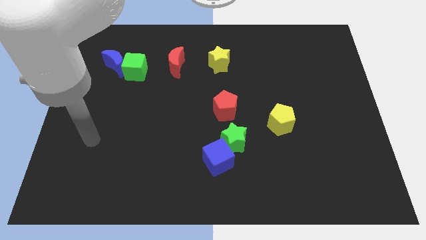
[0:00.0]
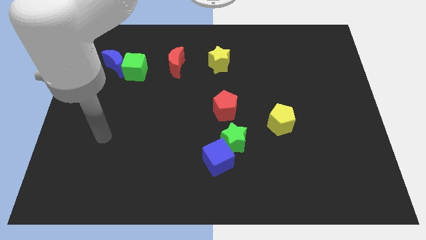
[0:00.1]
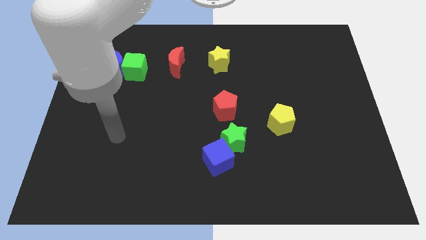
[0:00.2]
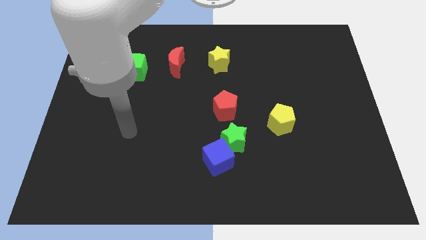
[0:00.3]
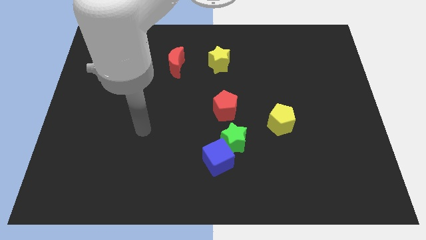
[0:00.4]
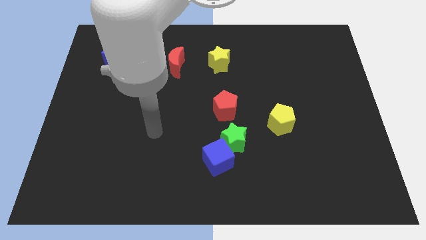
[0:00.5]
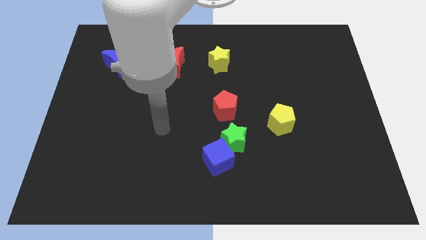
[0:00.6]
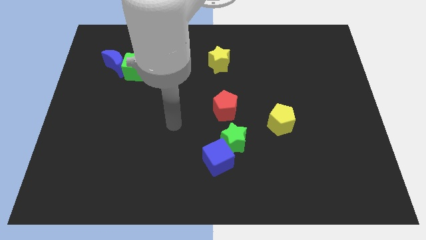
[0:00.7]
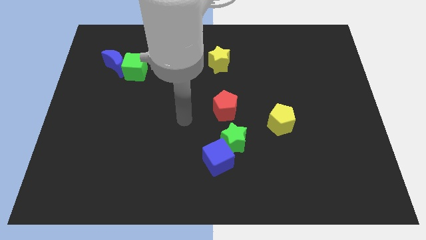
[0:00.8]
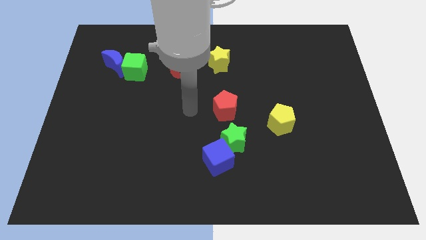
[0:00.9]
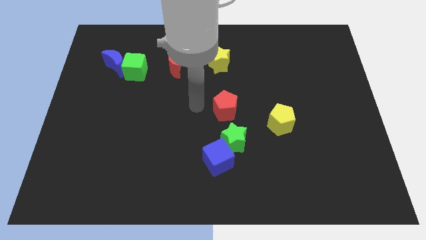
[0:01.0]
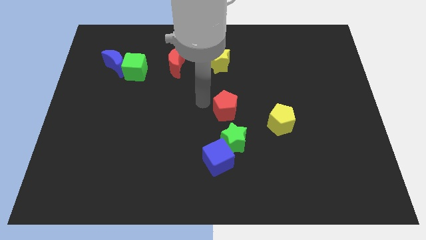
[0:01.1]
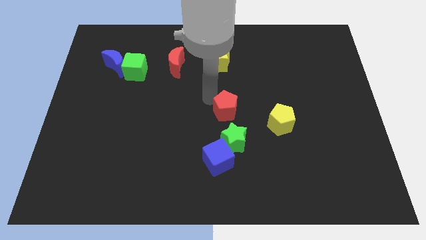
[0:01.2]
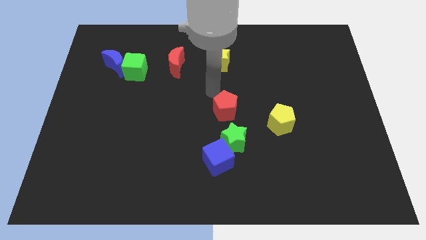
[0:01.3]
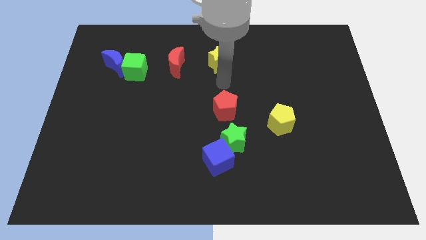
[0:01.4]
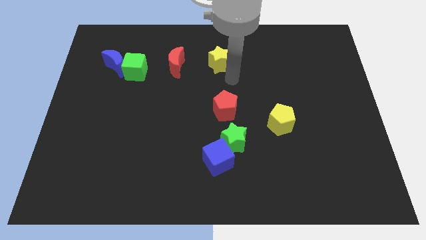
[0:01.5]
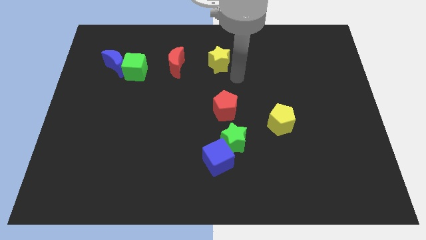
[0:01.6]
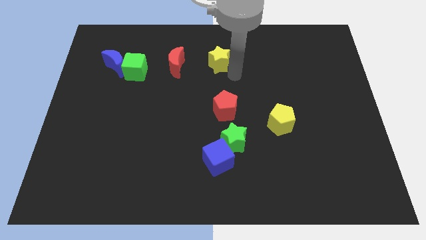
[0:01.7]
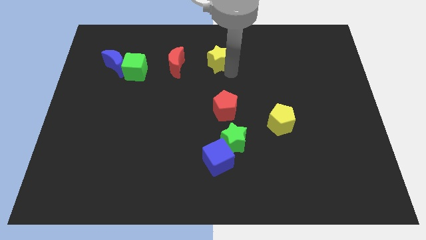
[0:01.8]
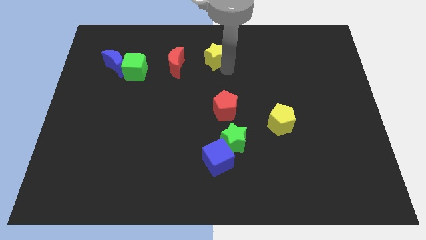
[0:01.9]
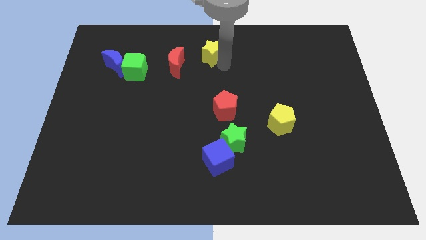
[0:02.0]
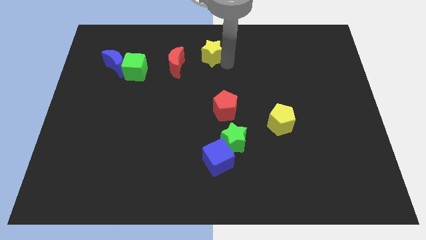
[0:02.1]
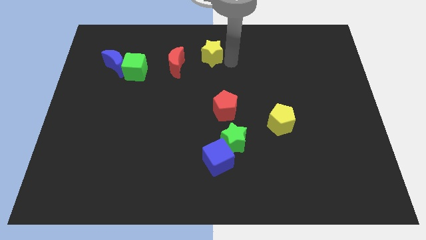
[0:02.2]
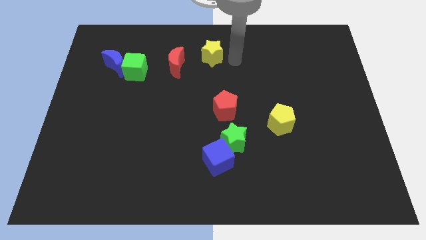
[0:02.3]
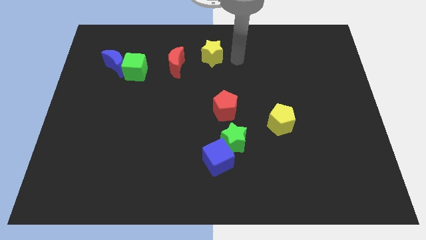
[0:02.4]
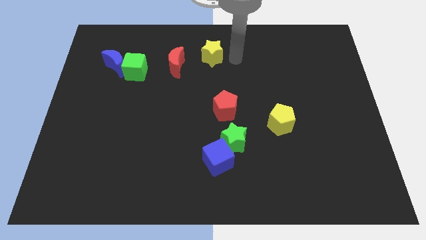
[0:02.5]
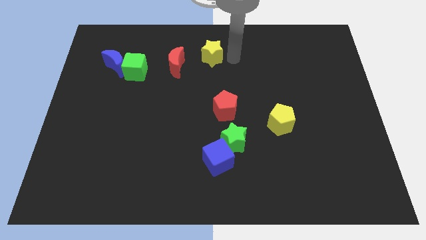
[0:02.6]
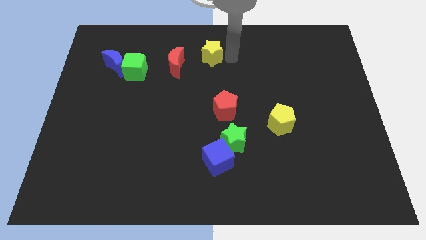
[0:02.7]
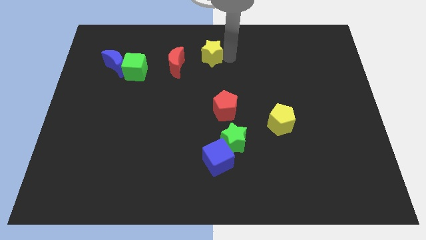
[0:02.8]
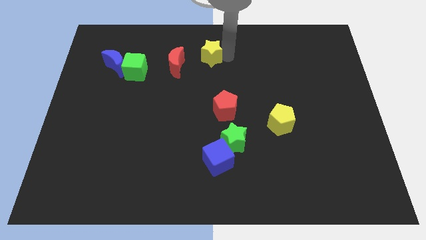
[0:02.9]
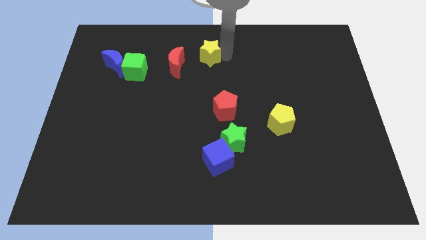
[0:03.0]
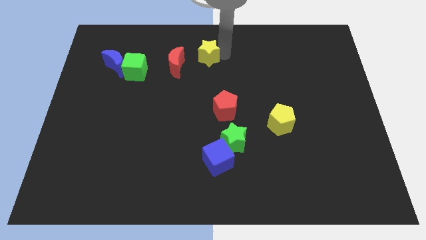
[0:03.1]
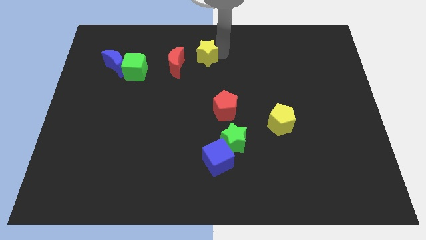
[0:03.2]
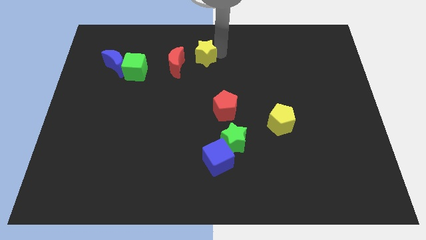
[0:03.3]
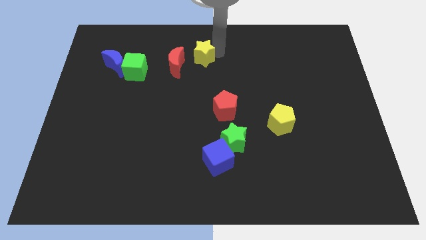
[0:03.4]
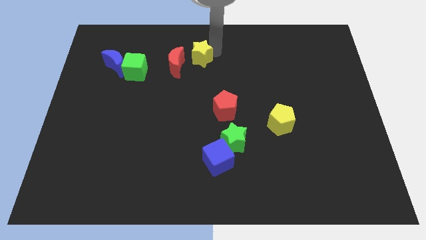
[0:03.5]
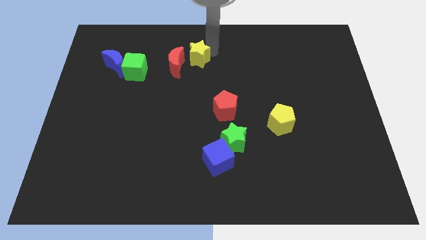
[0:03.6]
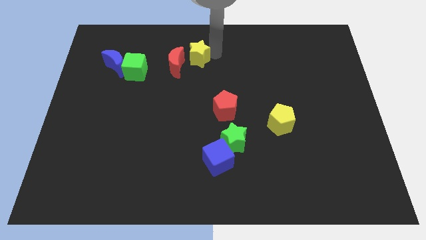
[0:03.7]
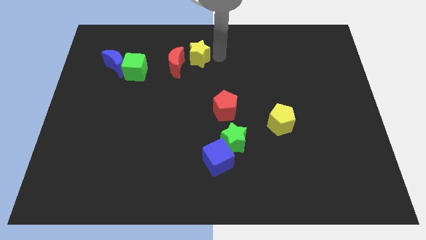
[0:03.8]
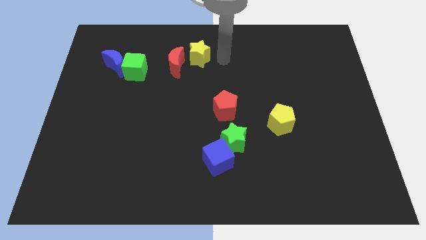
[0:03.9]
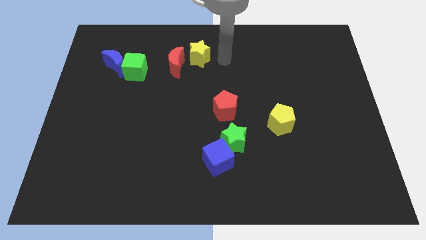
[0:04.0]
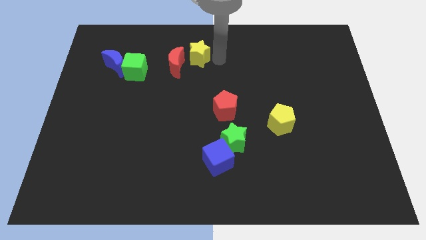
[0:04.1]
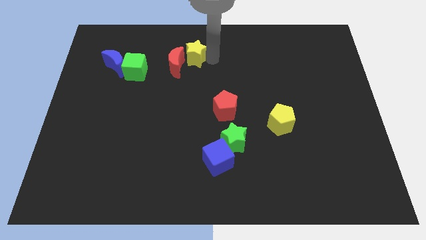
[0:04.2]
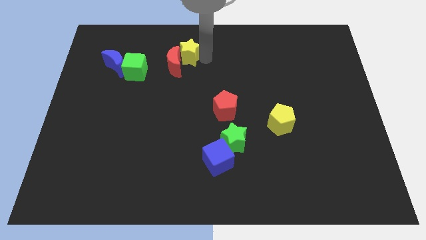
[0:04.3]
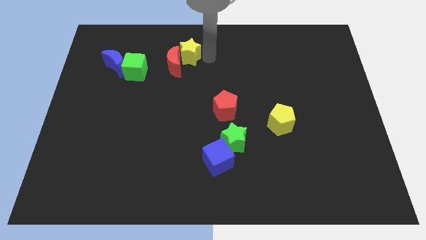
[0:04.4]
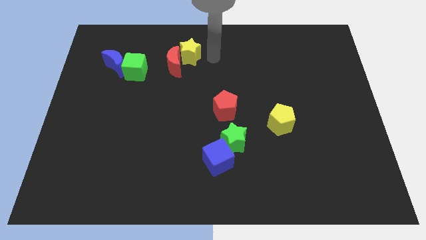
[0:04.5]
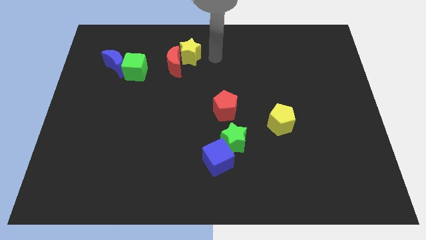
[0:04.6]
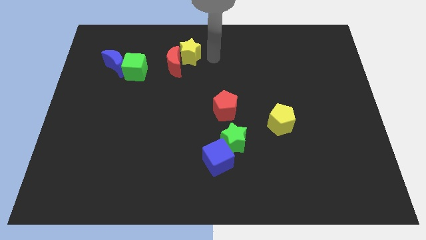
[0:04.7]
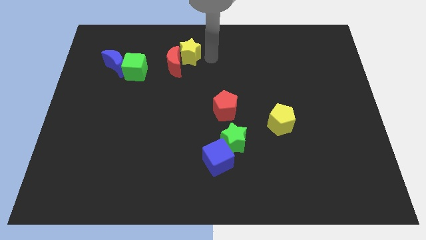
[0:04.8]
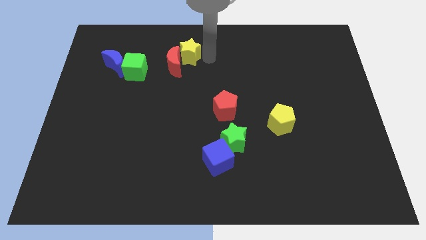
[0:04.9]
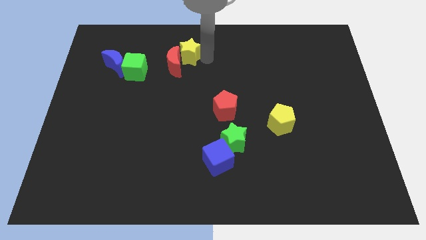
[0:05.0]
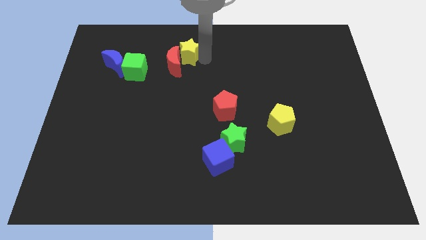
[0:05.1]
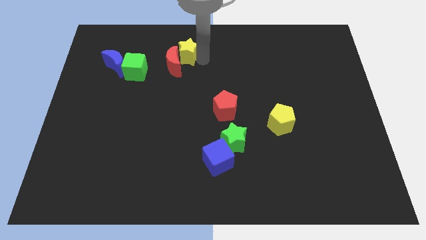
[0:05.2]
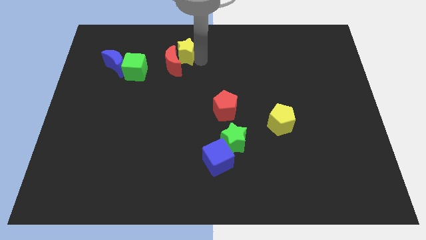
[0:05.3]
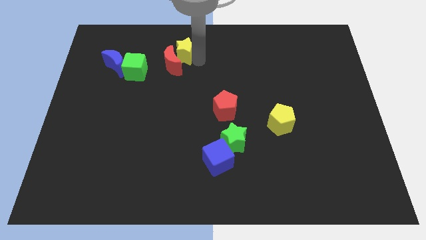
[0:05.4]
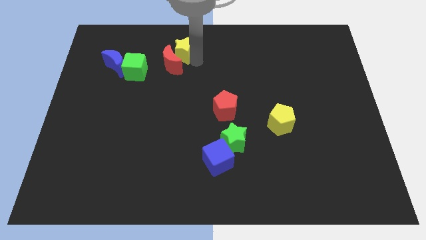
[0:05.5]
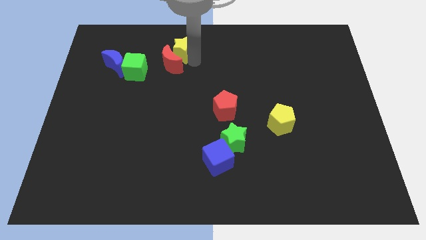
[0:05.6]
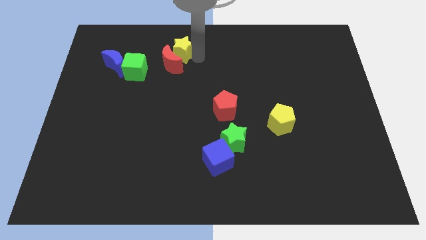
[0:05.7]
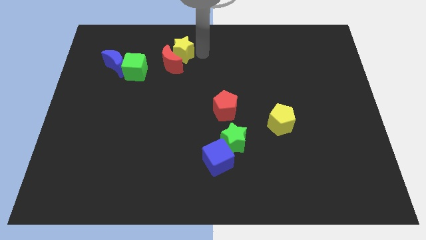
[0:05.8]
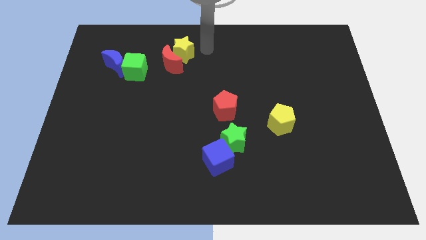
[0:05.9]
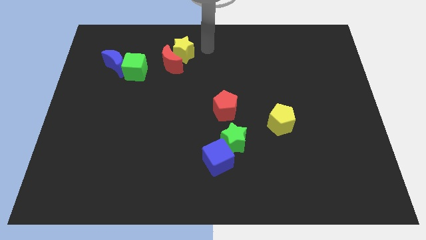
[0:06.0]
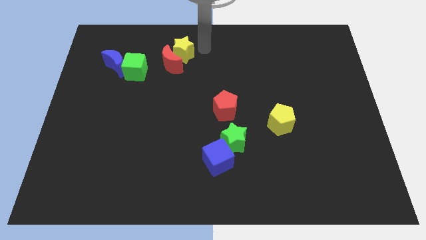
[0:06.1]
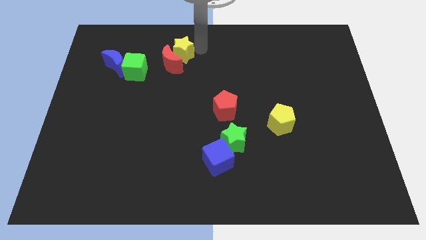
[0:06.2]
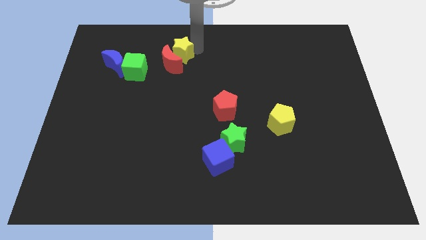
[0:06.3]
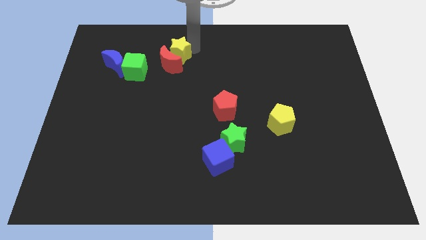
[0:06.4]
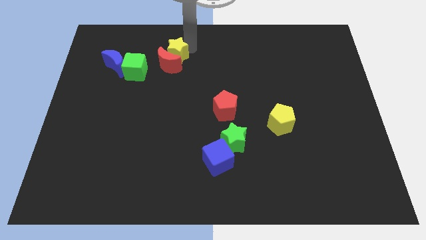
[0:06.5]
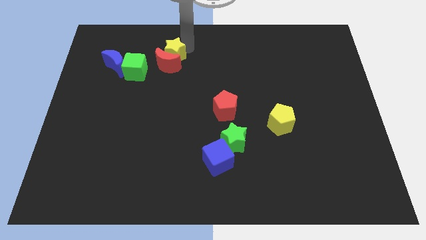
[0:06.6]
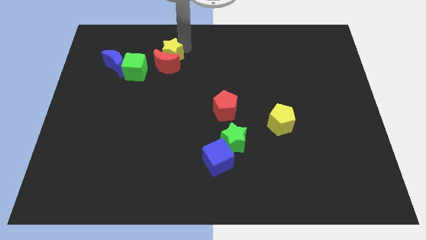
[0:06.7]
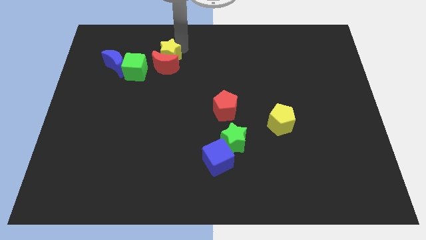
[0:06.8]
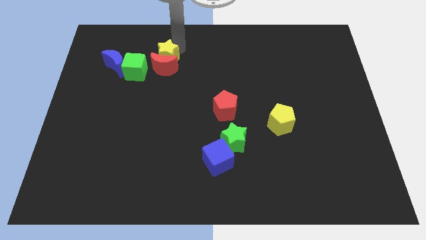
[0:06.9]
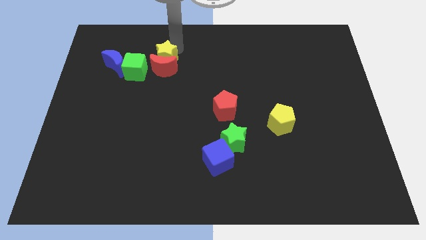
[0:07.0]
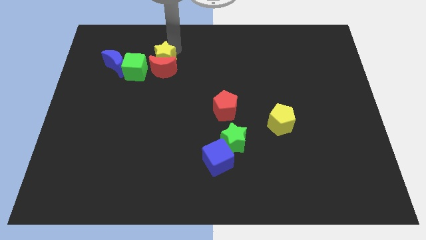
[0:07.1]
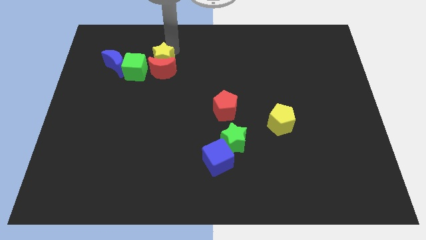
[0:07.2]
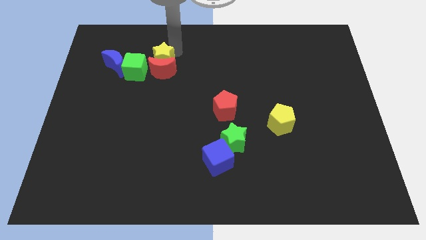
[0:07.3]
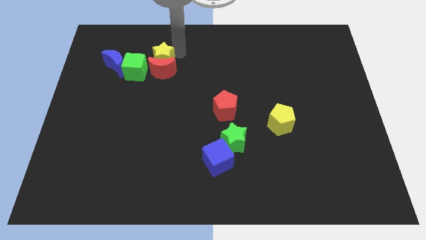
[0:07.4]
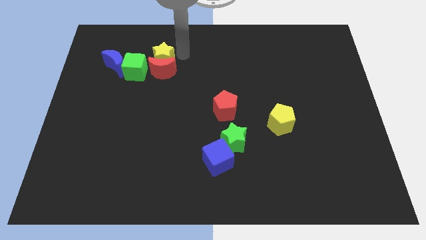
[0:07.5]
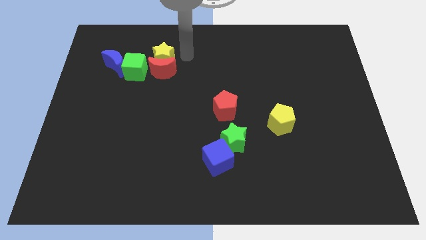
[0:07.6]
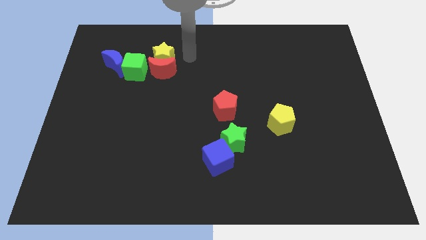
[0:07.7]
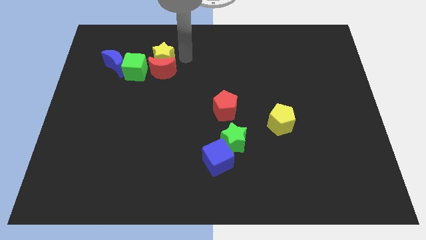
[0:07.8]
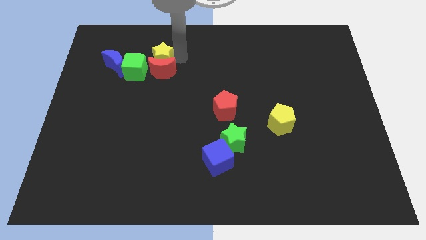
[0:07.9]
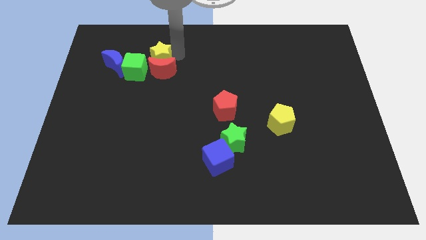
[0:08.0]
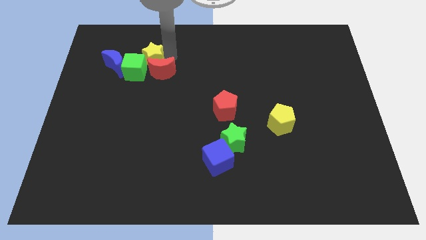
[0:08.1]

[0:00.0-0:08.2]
slide the yellow star to the green cube
